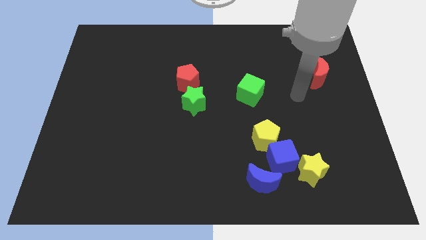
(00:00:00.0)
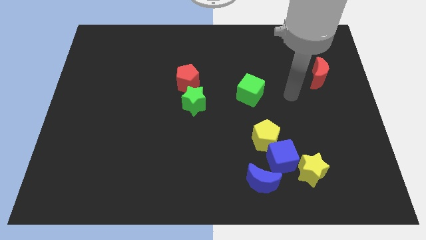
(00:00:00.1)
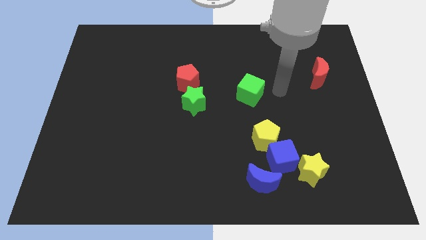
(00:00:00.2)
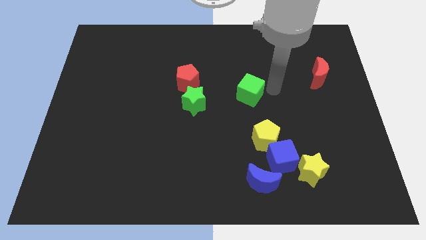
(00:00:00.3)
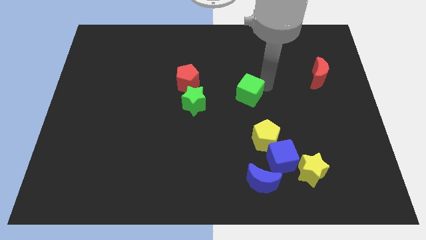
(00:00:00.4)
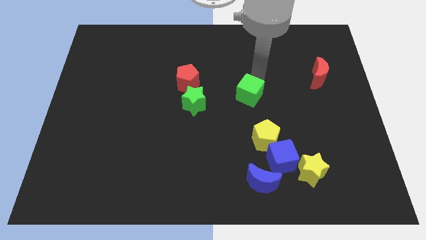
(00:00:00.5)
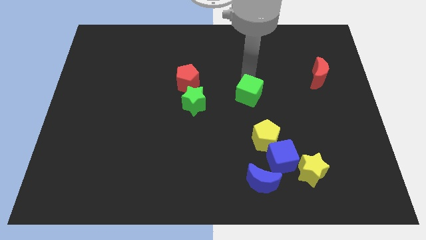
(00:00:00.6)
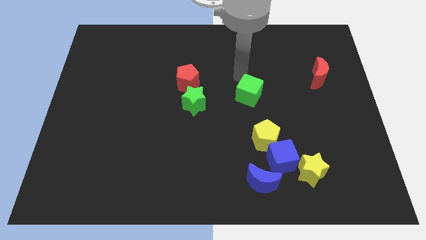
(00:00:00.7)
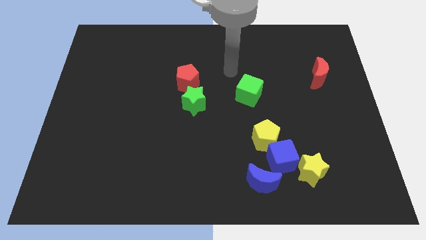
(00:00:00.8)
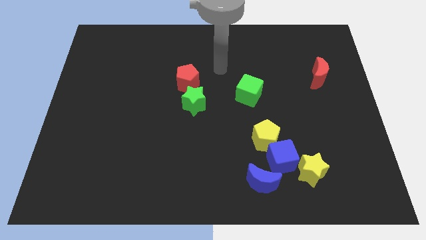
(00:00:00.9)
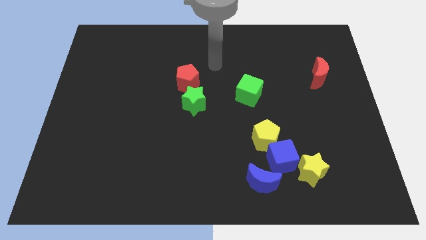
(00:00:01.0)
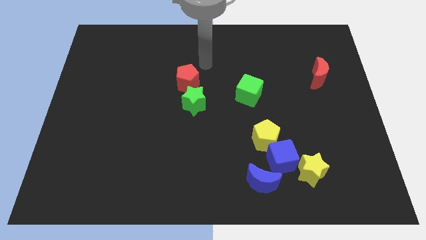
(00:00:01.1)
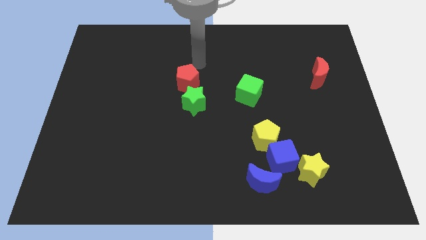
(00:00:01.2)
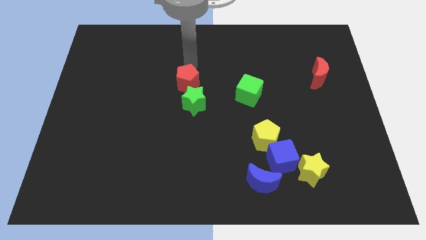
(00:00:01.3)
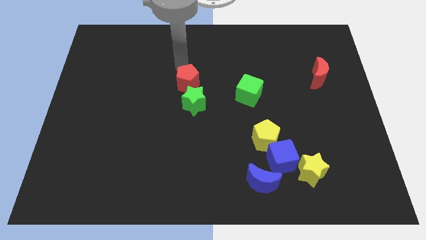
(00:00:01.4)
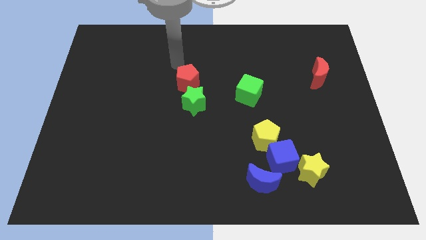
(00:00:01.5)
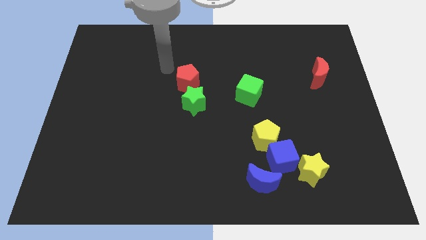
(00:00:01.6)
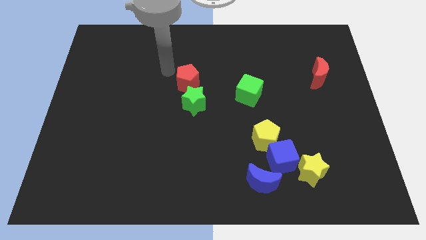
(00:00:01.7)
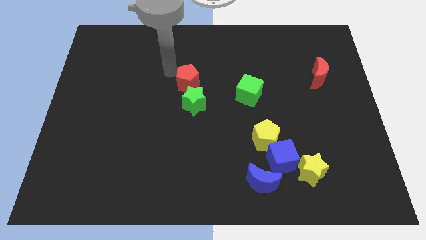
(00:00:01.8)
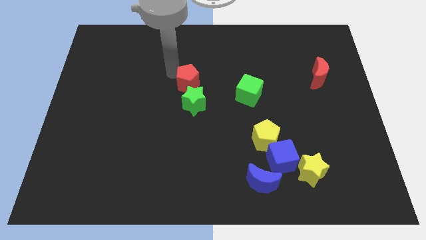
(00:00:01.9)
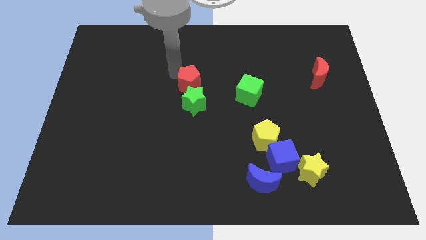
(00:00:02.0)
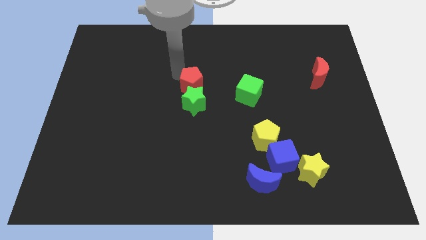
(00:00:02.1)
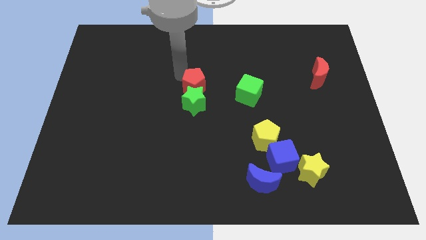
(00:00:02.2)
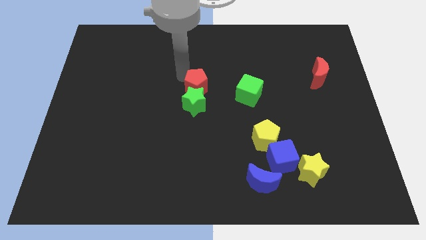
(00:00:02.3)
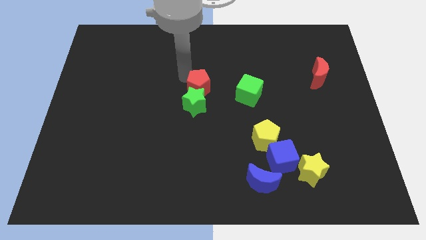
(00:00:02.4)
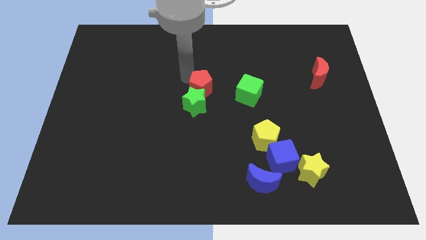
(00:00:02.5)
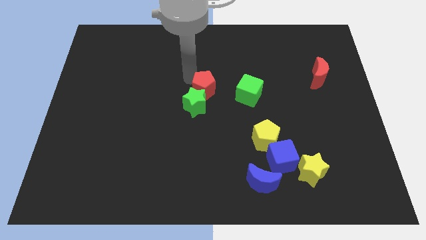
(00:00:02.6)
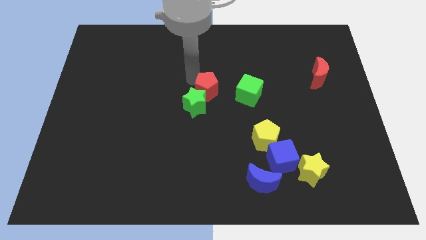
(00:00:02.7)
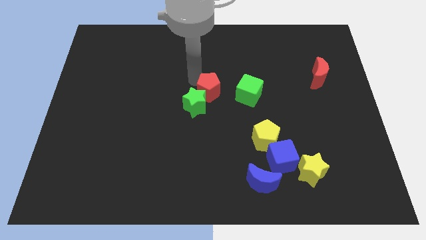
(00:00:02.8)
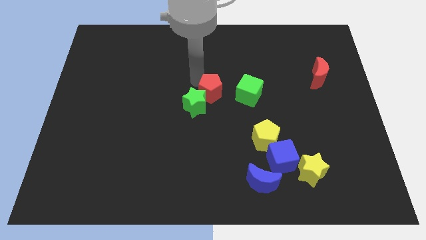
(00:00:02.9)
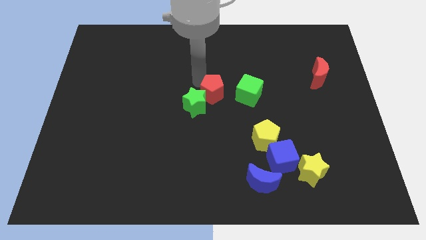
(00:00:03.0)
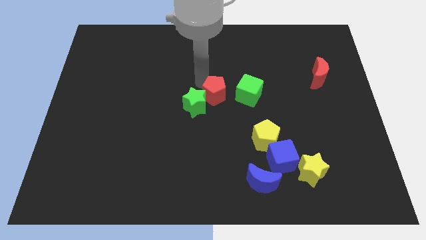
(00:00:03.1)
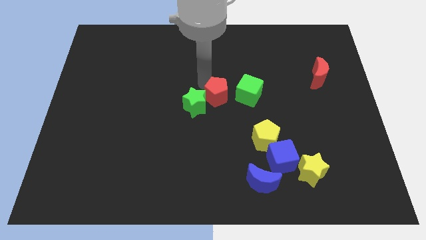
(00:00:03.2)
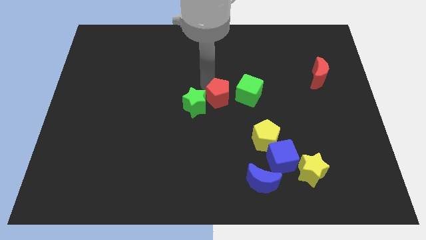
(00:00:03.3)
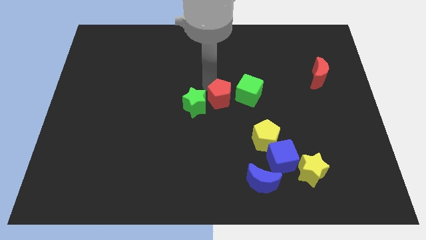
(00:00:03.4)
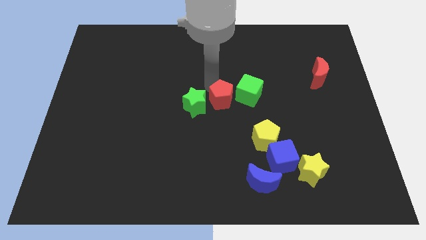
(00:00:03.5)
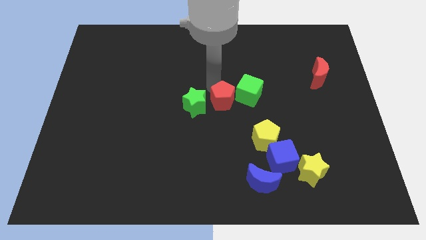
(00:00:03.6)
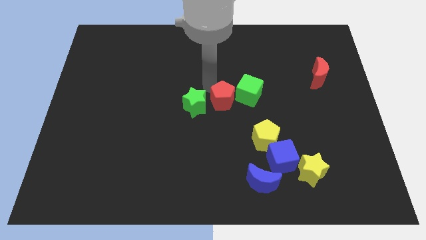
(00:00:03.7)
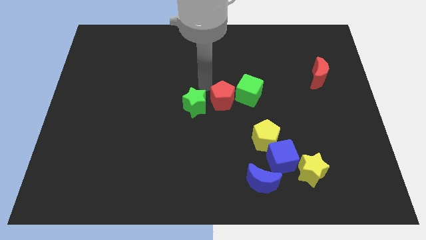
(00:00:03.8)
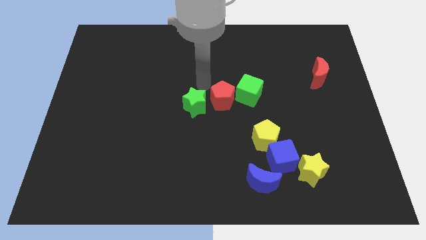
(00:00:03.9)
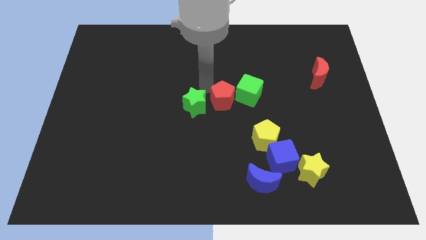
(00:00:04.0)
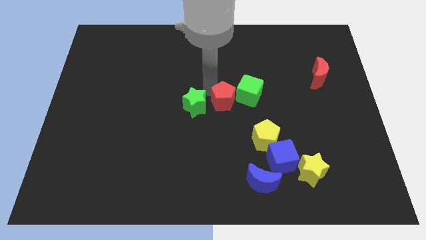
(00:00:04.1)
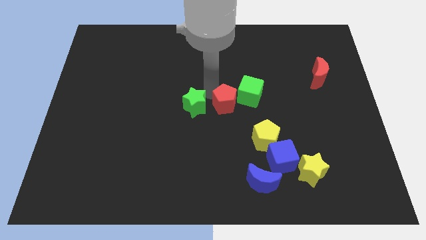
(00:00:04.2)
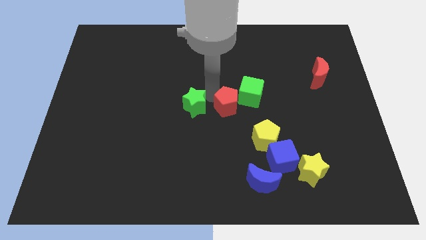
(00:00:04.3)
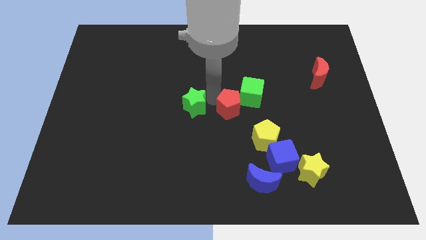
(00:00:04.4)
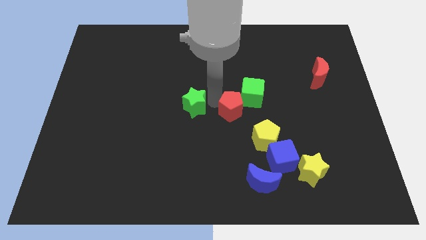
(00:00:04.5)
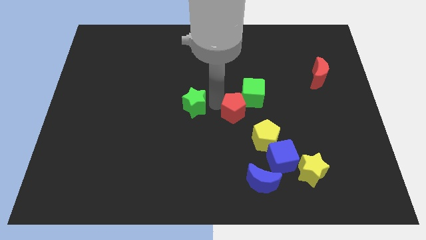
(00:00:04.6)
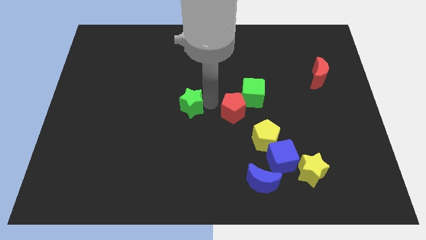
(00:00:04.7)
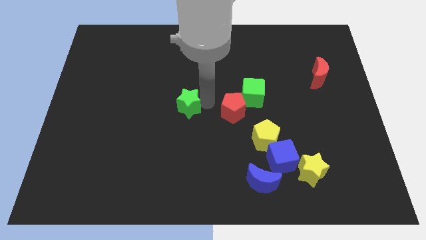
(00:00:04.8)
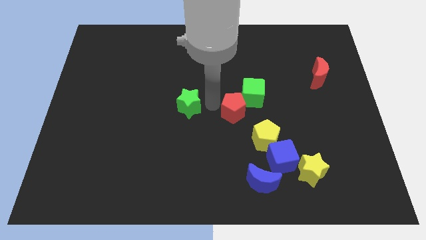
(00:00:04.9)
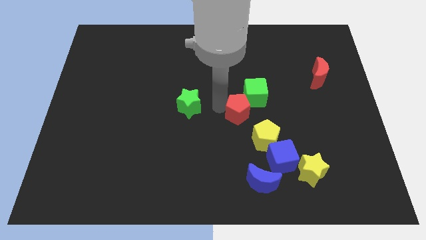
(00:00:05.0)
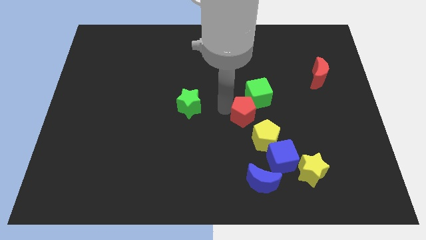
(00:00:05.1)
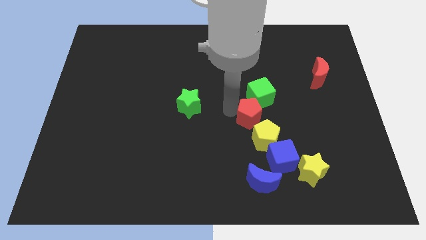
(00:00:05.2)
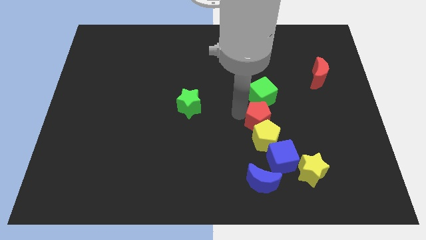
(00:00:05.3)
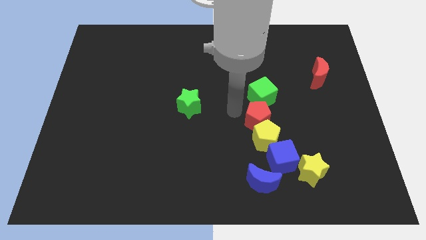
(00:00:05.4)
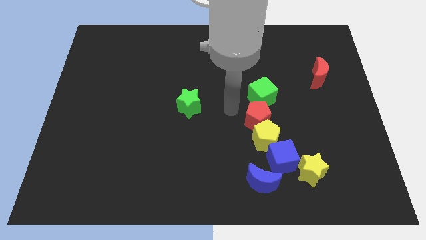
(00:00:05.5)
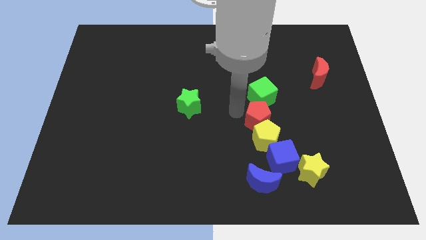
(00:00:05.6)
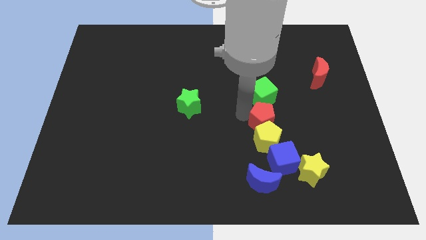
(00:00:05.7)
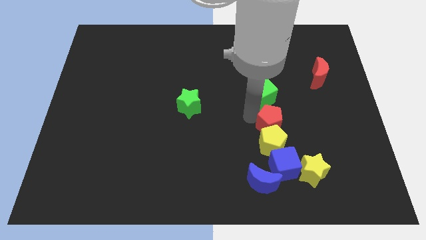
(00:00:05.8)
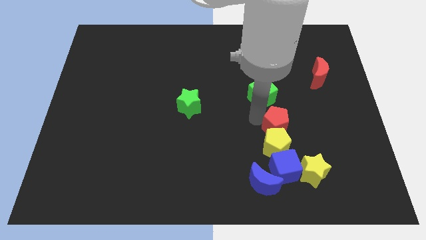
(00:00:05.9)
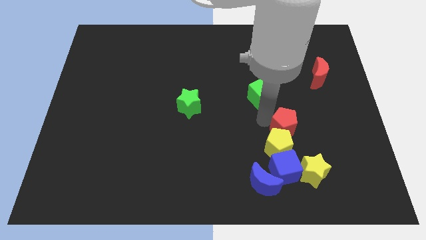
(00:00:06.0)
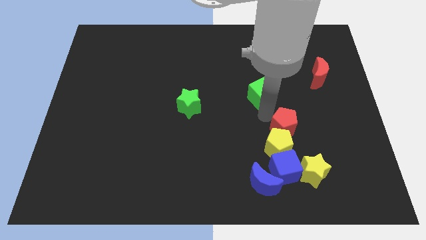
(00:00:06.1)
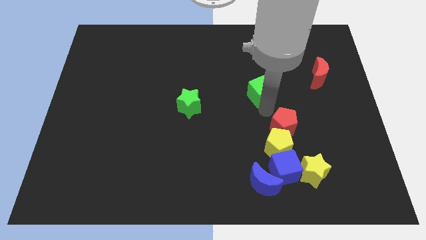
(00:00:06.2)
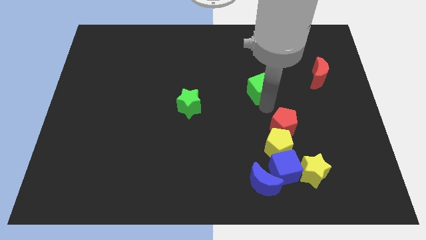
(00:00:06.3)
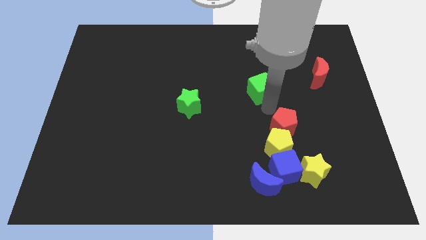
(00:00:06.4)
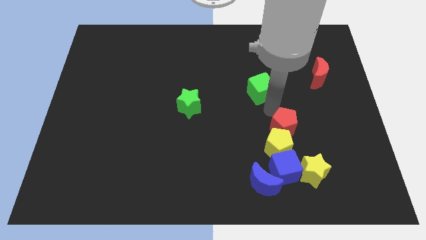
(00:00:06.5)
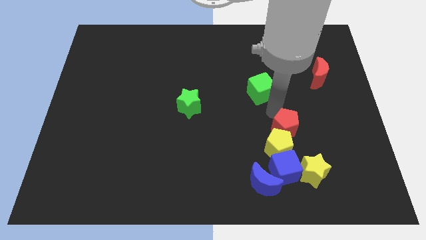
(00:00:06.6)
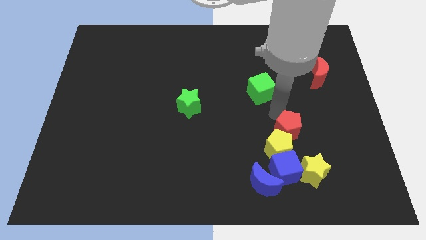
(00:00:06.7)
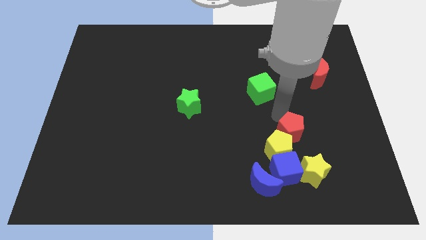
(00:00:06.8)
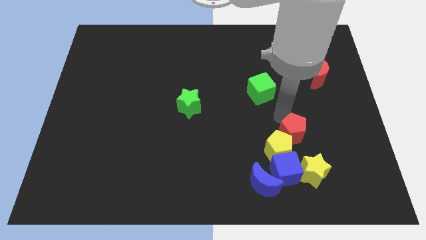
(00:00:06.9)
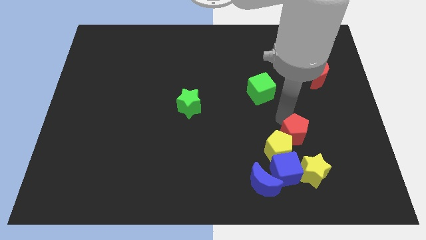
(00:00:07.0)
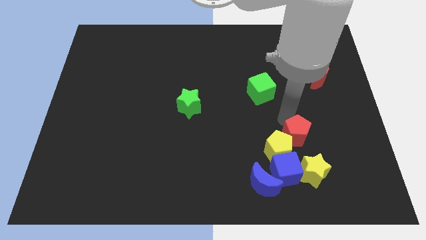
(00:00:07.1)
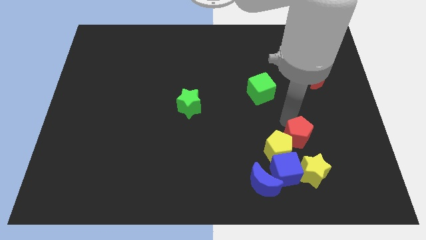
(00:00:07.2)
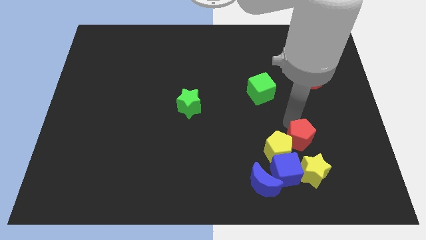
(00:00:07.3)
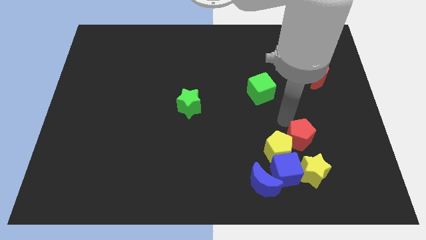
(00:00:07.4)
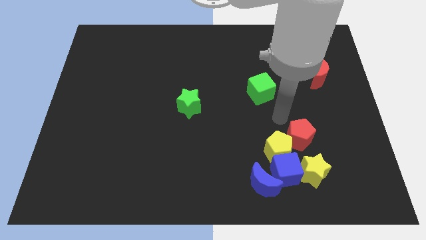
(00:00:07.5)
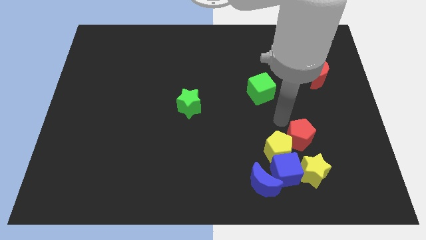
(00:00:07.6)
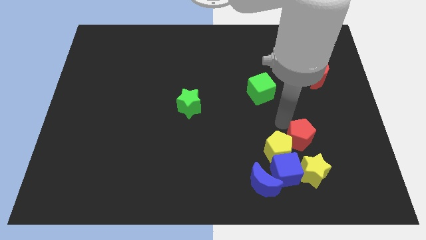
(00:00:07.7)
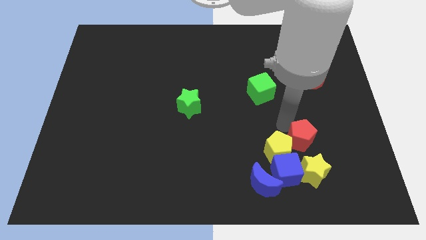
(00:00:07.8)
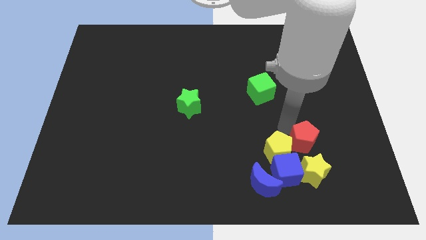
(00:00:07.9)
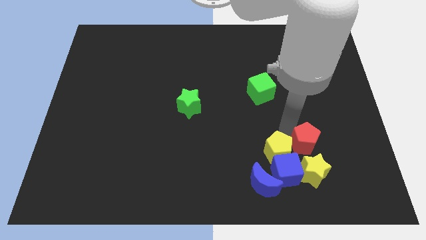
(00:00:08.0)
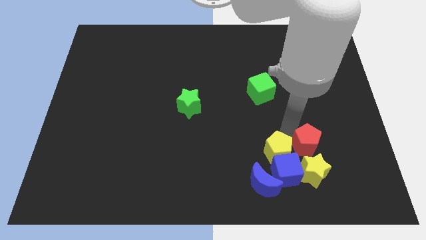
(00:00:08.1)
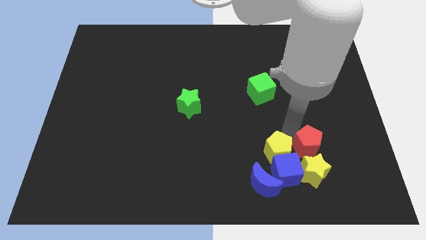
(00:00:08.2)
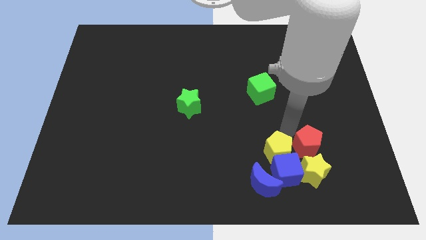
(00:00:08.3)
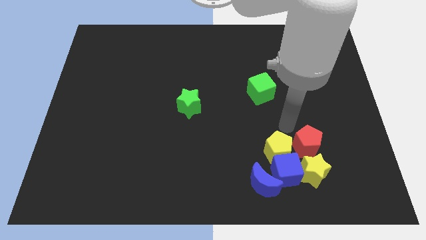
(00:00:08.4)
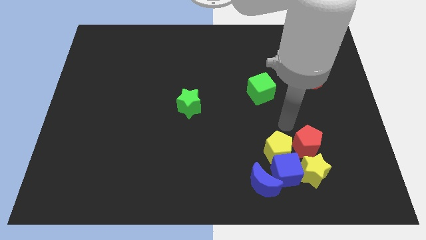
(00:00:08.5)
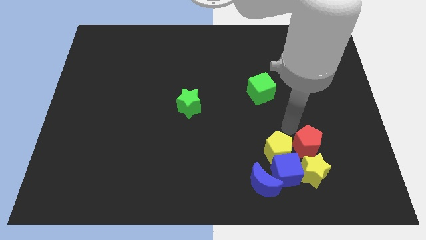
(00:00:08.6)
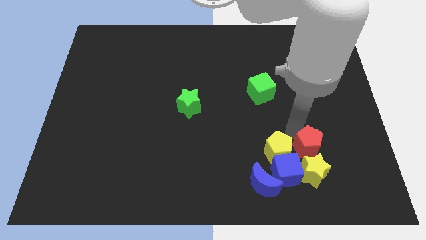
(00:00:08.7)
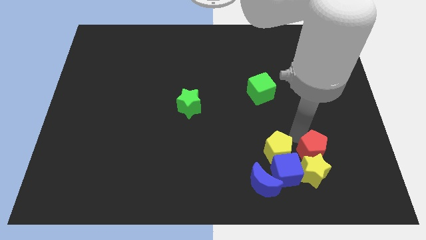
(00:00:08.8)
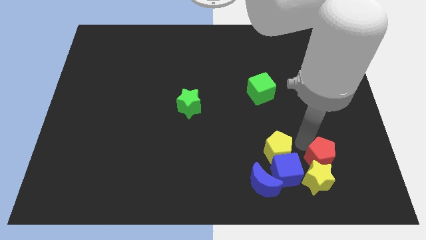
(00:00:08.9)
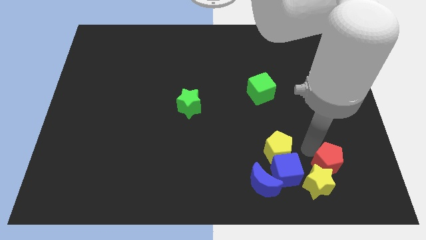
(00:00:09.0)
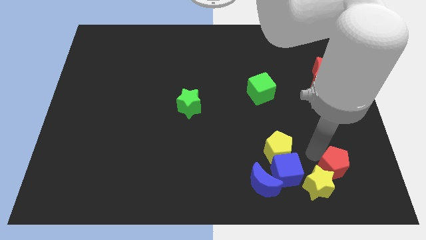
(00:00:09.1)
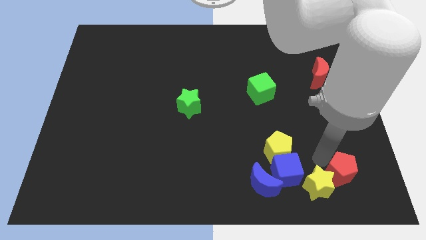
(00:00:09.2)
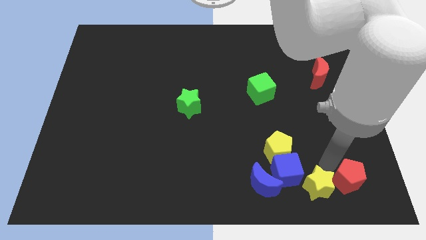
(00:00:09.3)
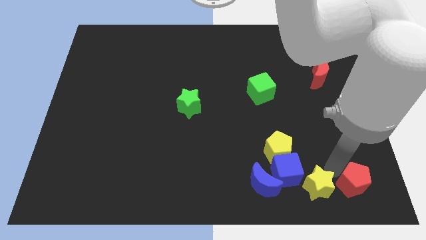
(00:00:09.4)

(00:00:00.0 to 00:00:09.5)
put the red pentagon to the bottom right corner
